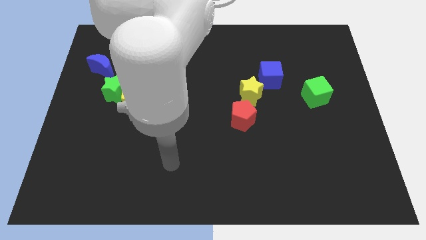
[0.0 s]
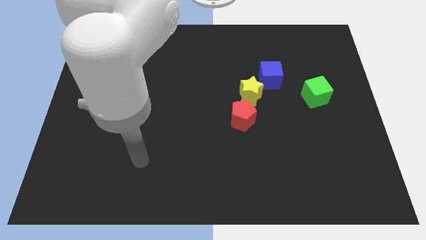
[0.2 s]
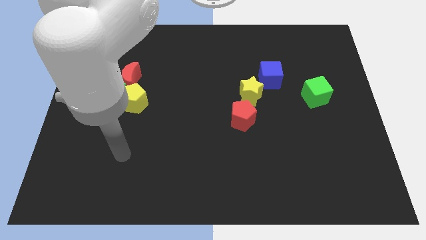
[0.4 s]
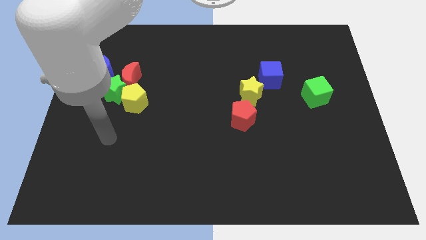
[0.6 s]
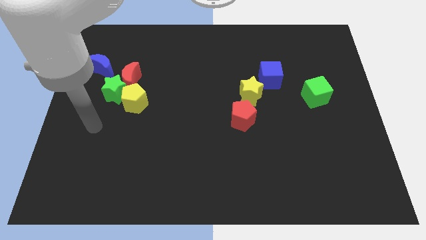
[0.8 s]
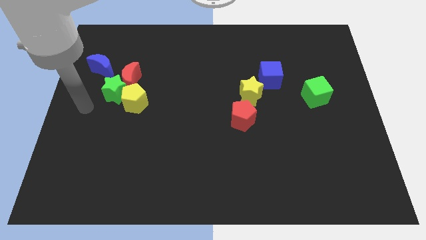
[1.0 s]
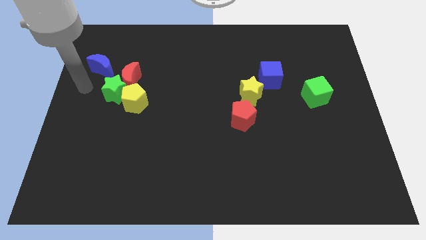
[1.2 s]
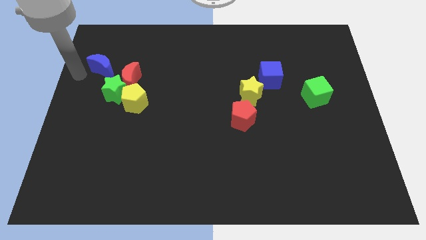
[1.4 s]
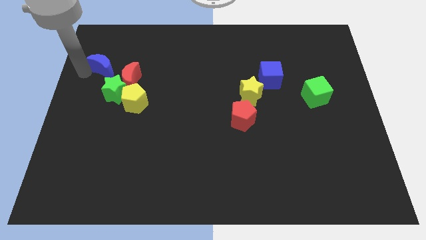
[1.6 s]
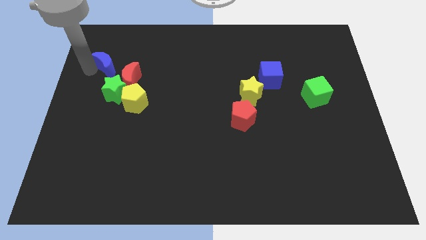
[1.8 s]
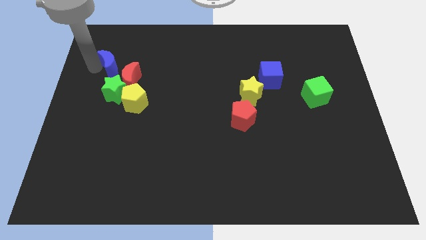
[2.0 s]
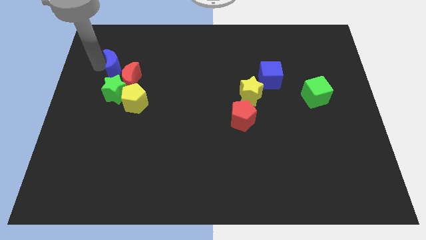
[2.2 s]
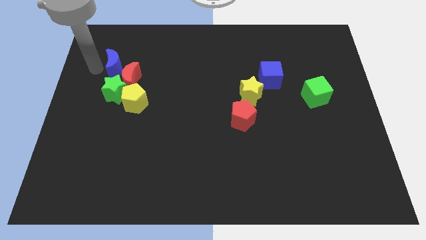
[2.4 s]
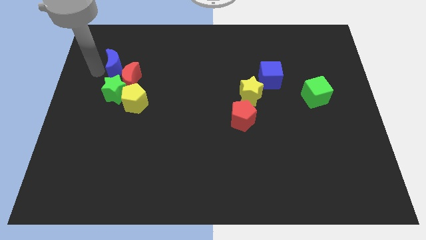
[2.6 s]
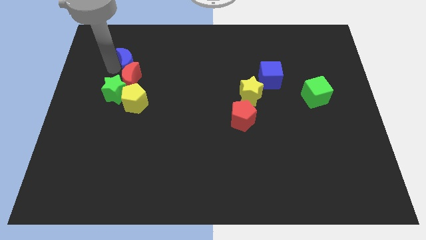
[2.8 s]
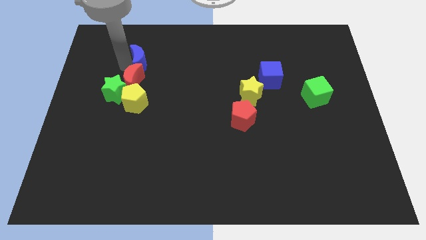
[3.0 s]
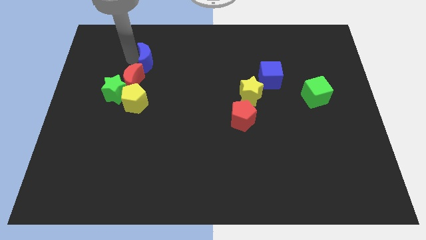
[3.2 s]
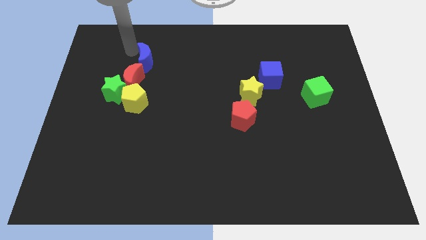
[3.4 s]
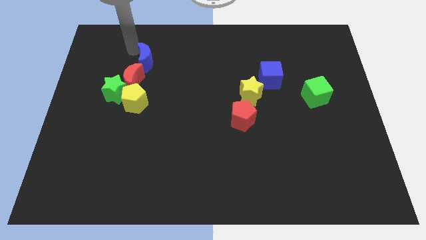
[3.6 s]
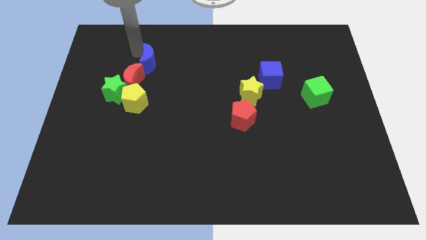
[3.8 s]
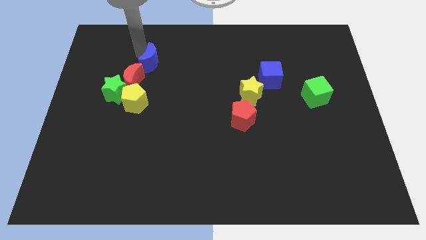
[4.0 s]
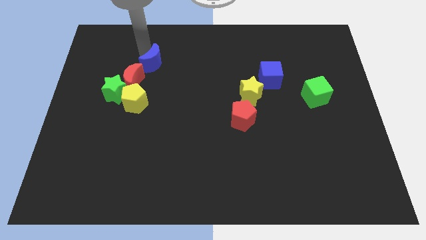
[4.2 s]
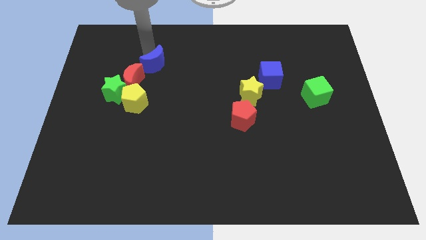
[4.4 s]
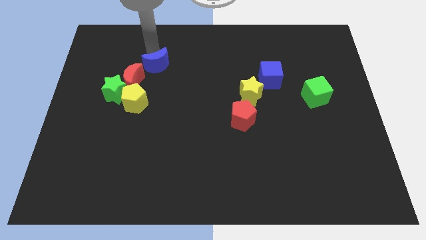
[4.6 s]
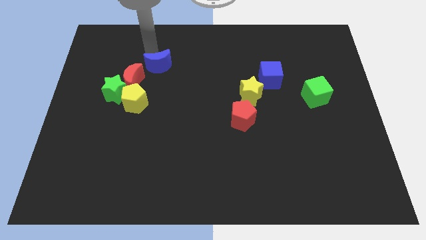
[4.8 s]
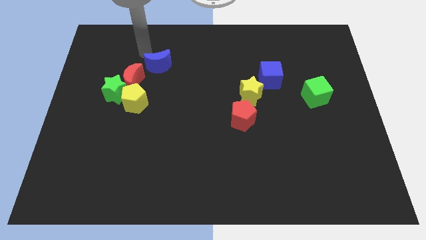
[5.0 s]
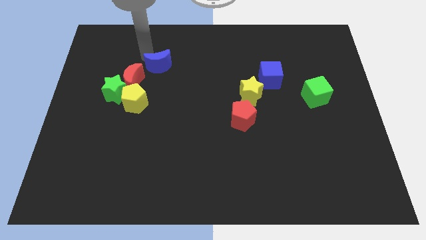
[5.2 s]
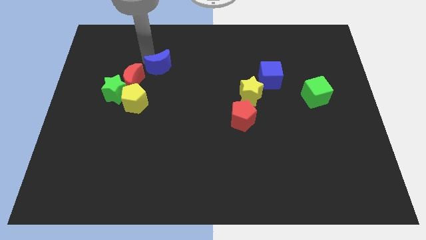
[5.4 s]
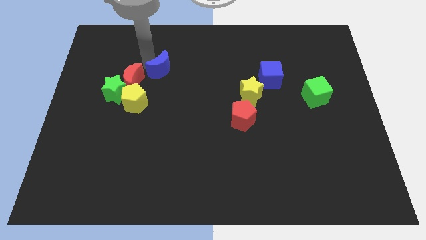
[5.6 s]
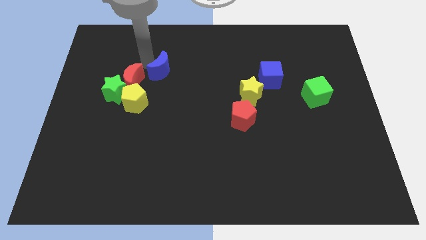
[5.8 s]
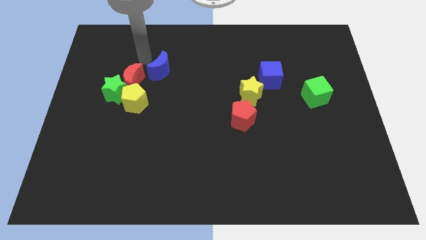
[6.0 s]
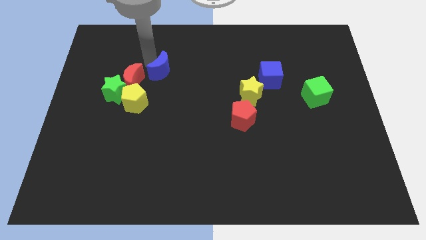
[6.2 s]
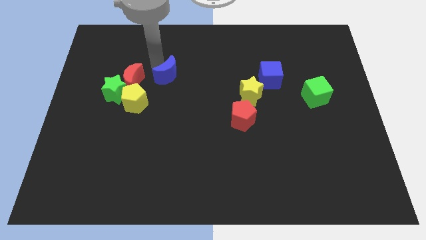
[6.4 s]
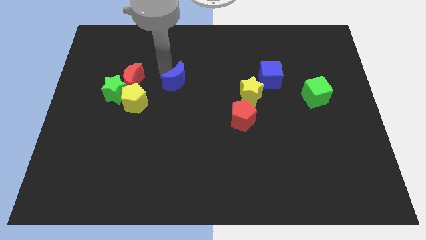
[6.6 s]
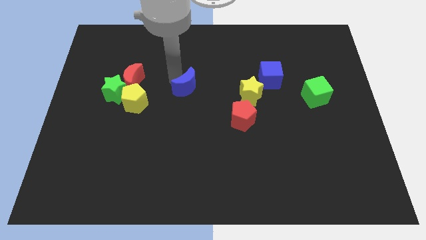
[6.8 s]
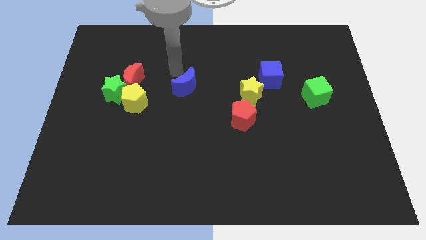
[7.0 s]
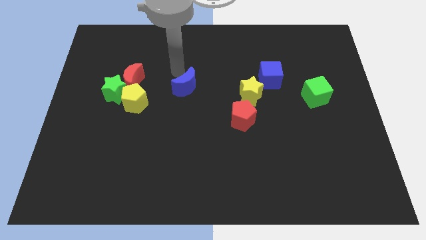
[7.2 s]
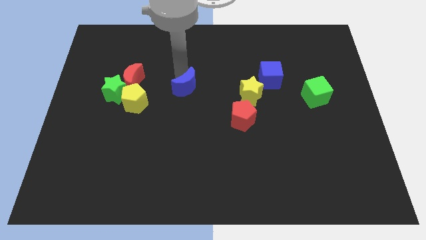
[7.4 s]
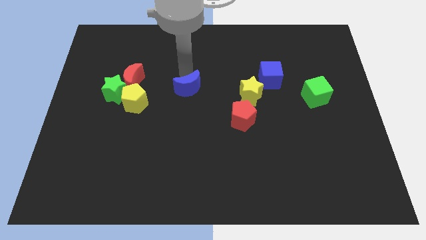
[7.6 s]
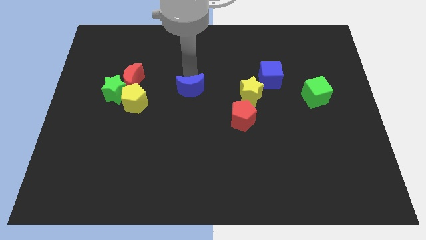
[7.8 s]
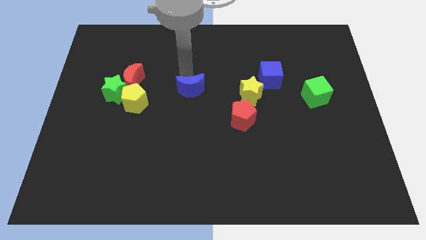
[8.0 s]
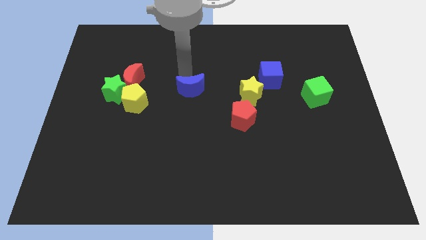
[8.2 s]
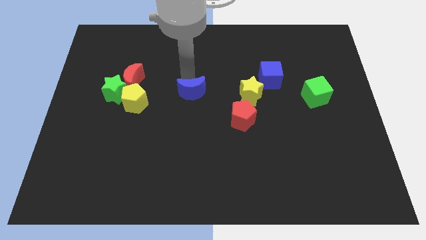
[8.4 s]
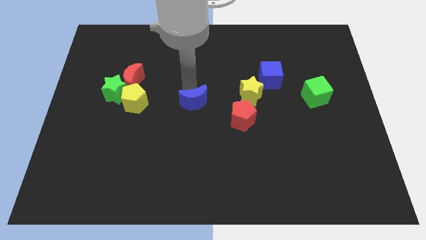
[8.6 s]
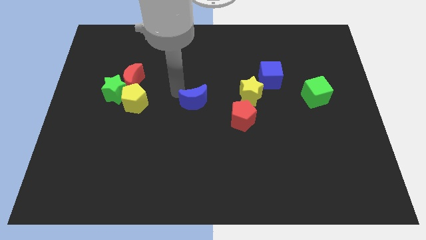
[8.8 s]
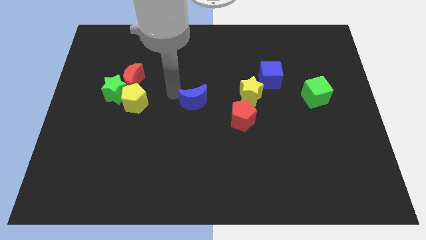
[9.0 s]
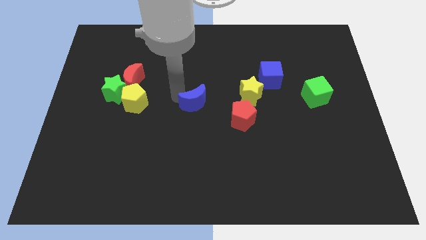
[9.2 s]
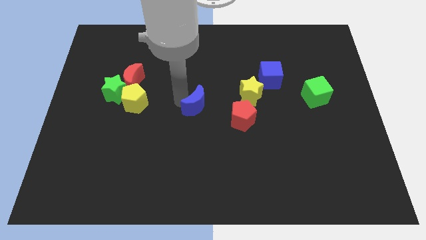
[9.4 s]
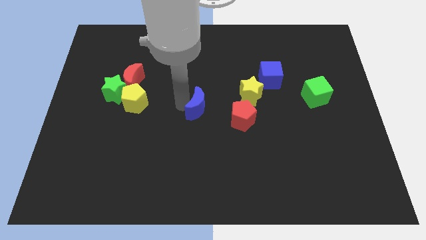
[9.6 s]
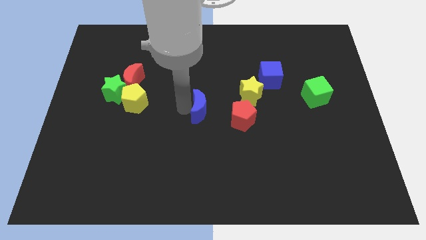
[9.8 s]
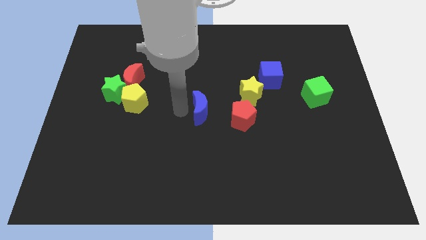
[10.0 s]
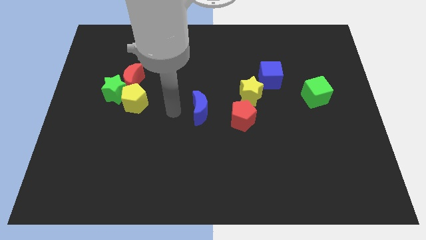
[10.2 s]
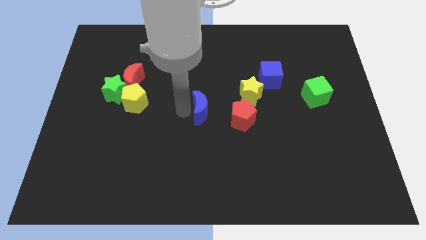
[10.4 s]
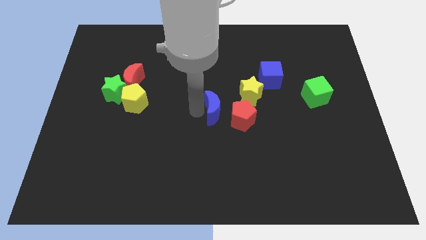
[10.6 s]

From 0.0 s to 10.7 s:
push the blue moon to the bottom left side of the yellow star

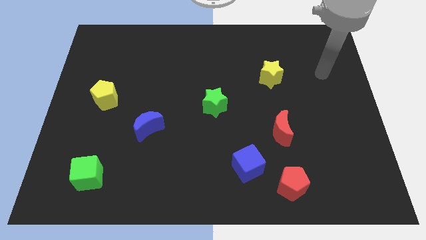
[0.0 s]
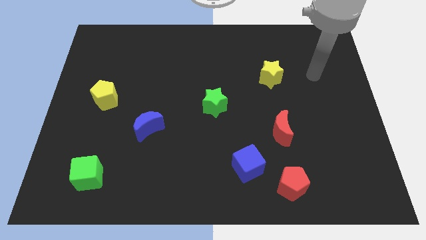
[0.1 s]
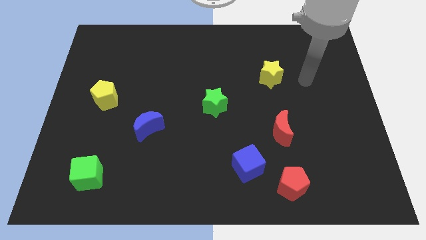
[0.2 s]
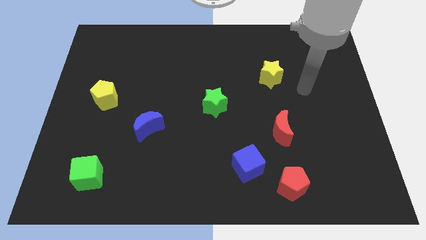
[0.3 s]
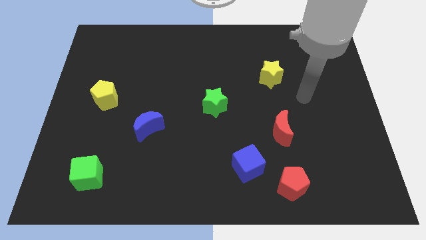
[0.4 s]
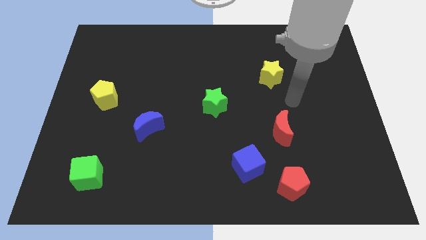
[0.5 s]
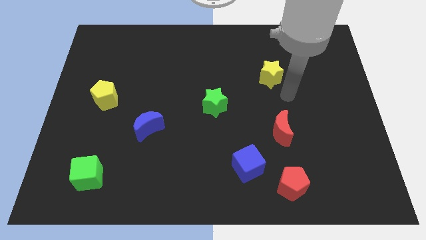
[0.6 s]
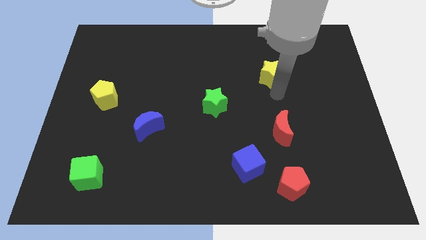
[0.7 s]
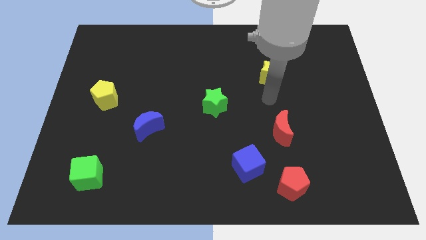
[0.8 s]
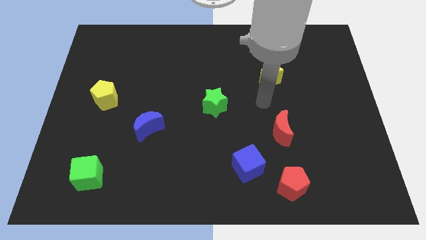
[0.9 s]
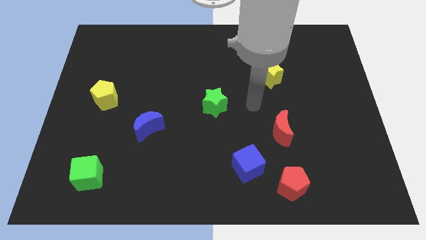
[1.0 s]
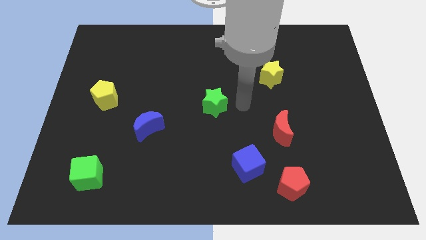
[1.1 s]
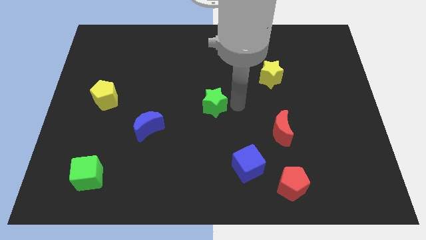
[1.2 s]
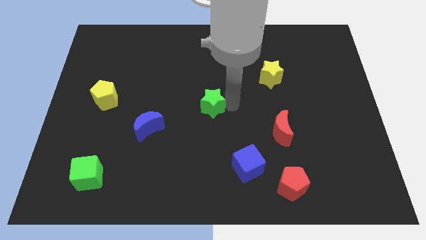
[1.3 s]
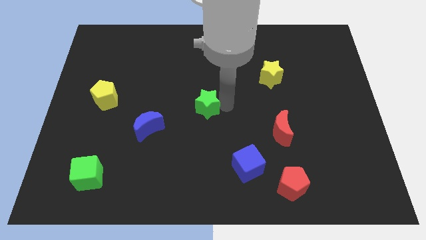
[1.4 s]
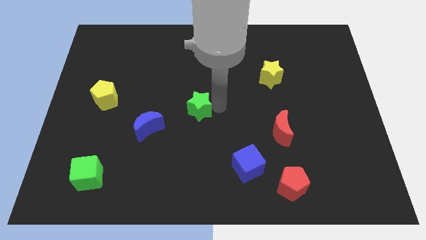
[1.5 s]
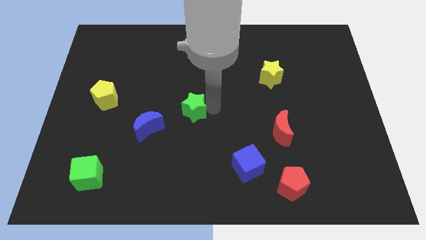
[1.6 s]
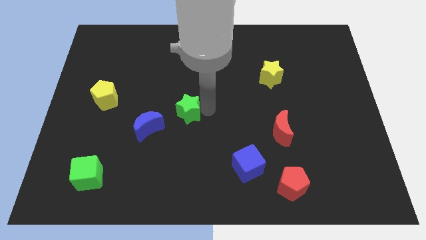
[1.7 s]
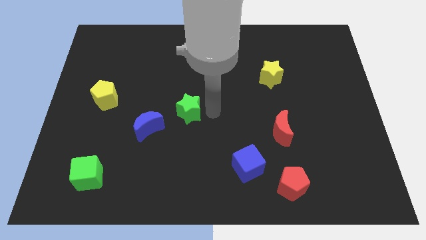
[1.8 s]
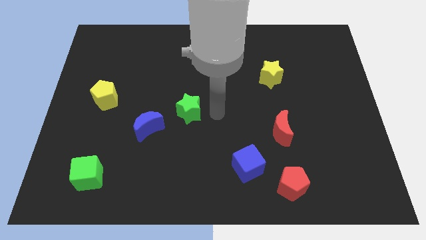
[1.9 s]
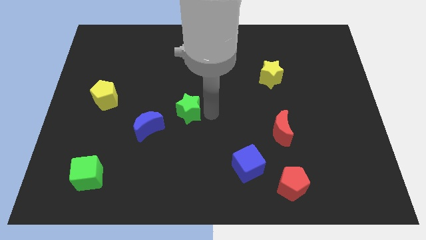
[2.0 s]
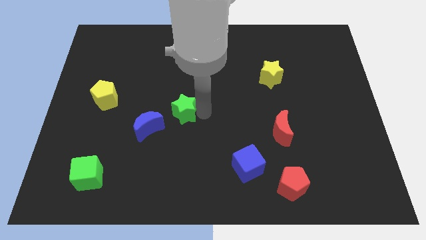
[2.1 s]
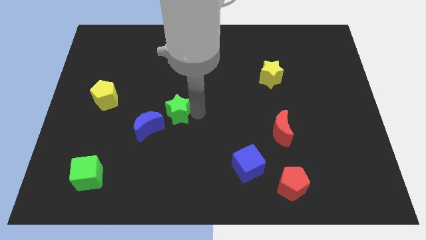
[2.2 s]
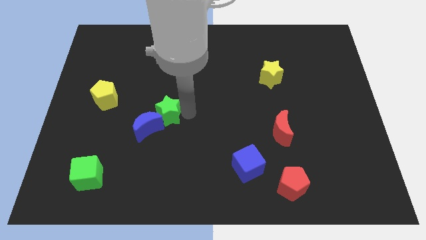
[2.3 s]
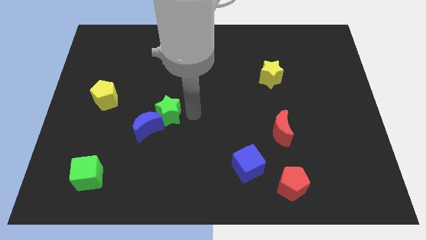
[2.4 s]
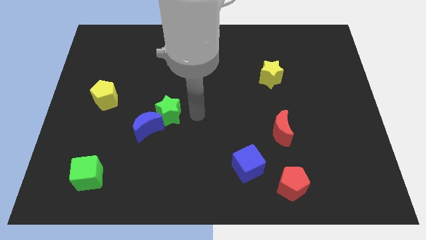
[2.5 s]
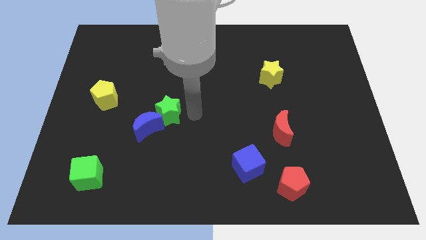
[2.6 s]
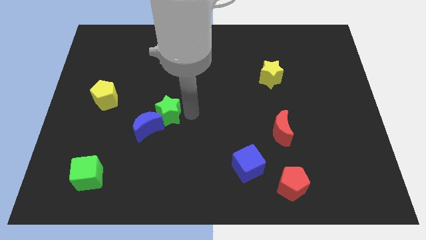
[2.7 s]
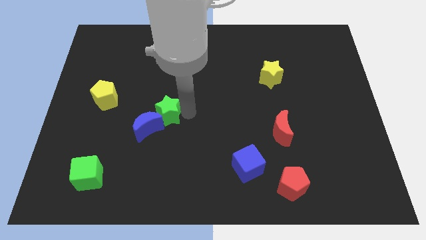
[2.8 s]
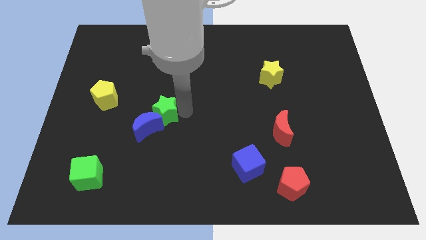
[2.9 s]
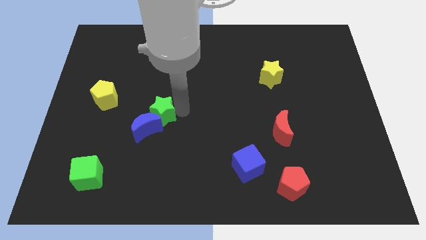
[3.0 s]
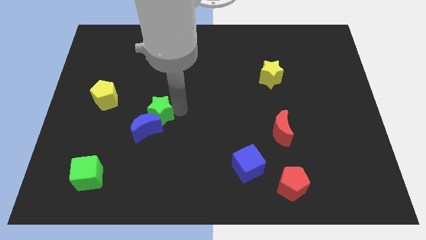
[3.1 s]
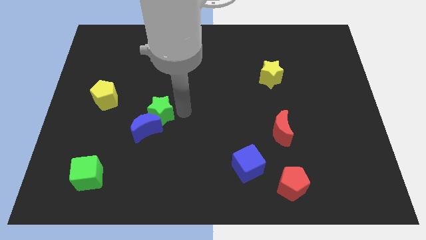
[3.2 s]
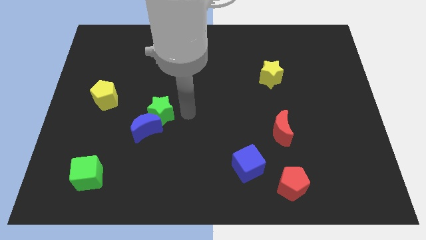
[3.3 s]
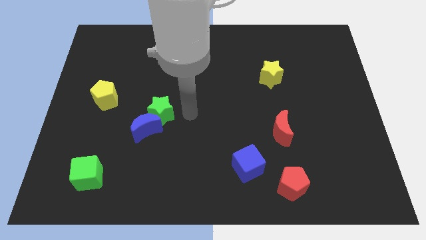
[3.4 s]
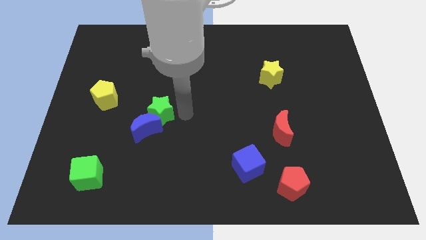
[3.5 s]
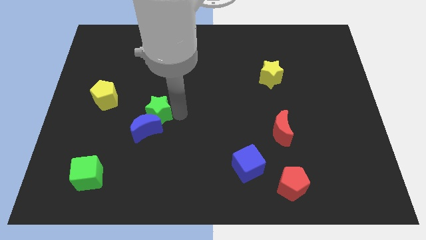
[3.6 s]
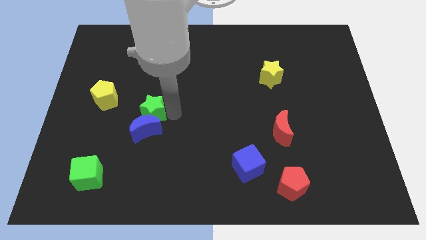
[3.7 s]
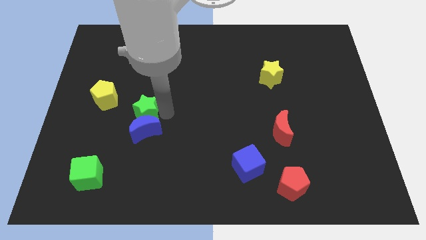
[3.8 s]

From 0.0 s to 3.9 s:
push the green star to the bottom right side of the yellow pentagon
